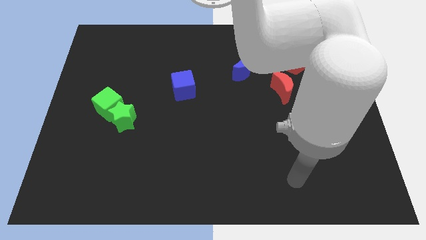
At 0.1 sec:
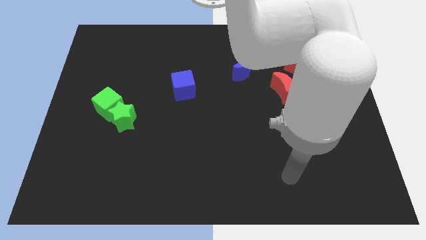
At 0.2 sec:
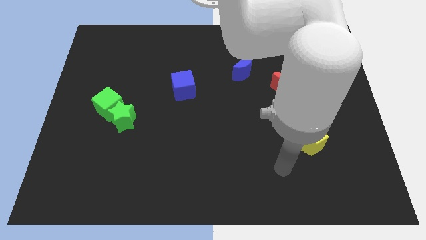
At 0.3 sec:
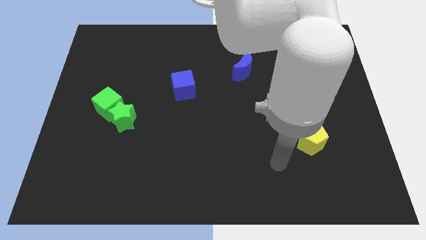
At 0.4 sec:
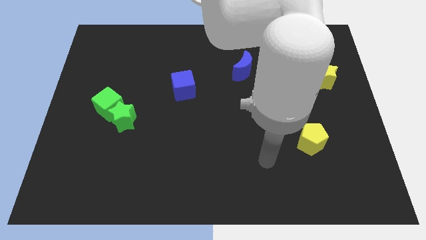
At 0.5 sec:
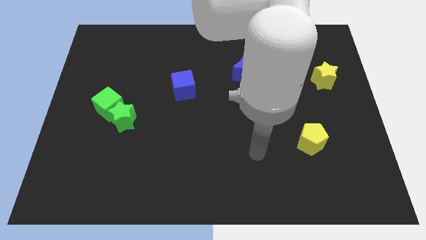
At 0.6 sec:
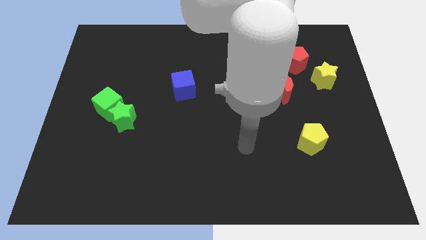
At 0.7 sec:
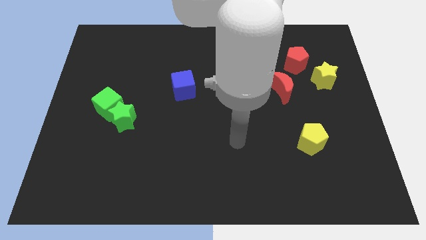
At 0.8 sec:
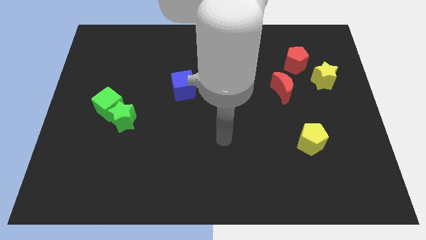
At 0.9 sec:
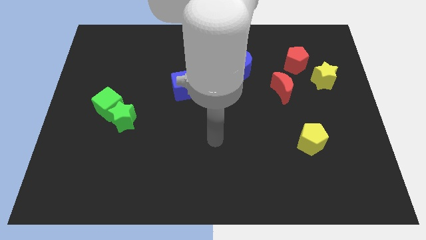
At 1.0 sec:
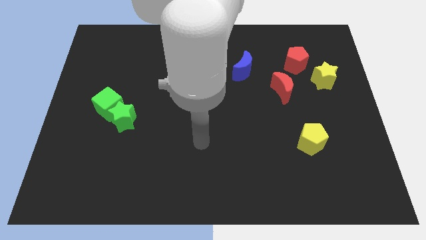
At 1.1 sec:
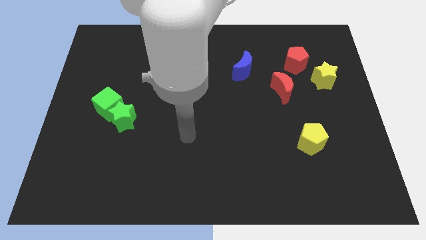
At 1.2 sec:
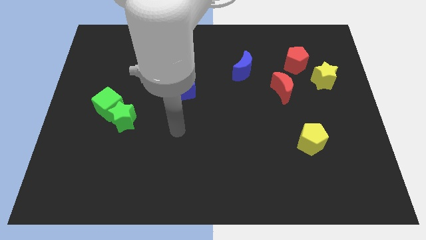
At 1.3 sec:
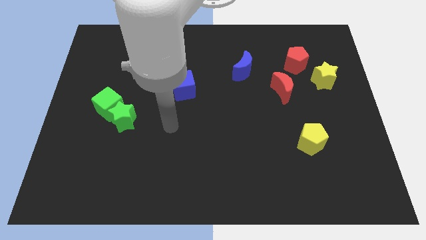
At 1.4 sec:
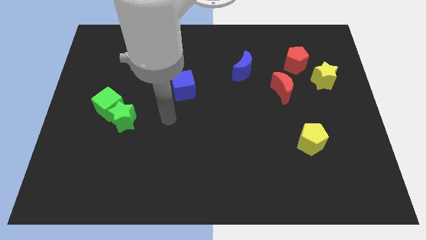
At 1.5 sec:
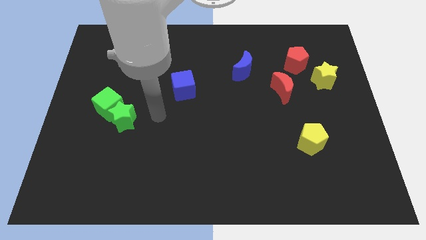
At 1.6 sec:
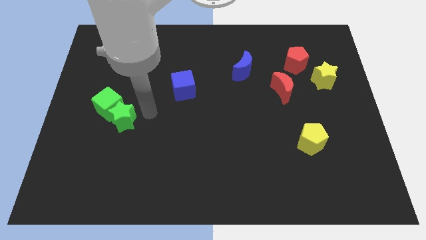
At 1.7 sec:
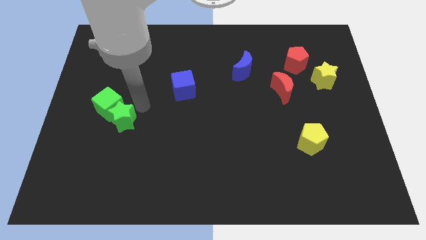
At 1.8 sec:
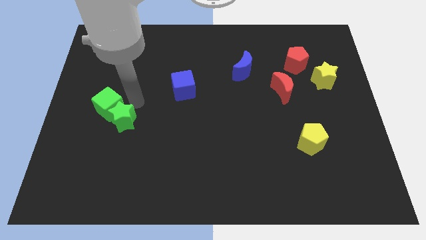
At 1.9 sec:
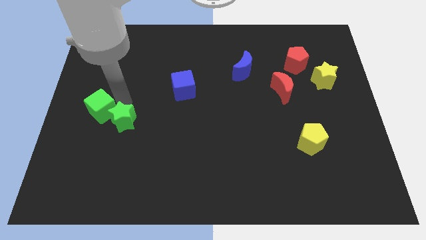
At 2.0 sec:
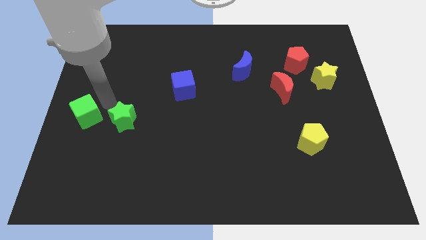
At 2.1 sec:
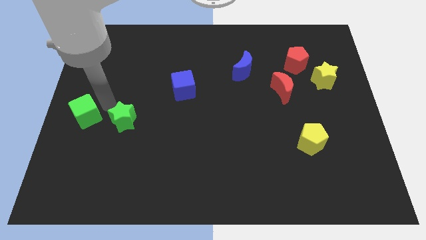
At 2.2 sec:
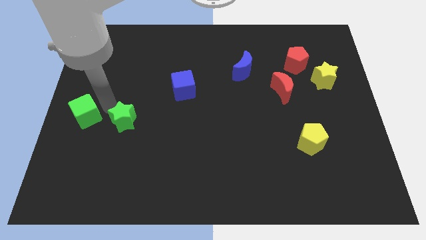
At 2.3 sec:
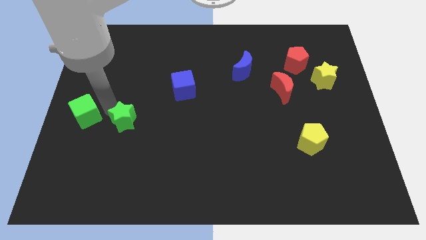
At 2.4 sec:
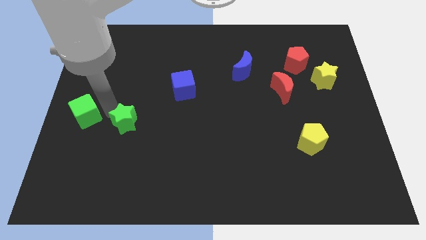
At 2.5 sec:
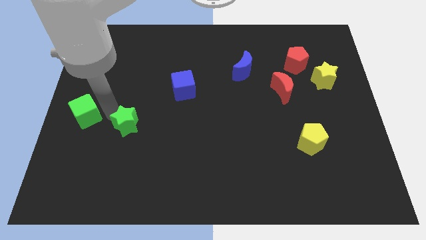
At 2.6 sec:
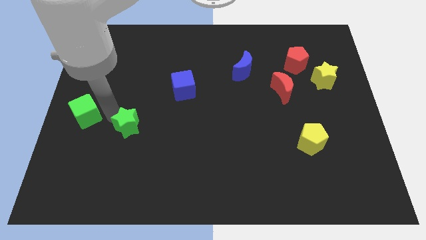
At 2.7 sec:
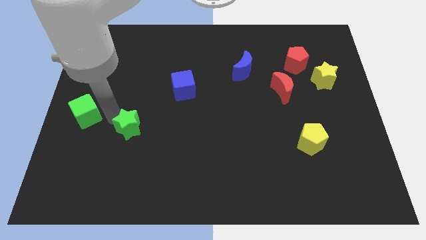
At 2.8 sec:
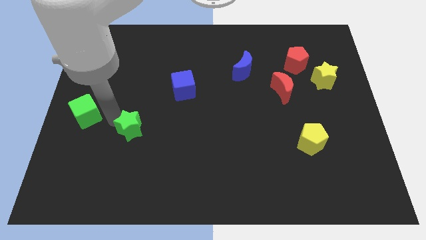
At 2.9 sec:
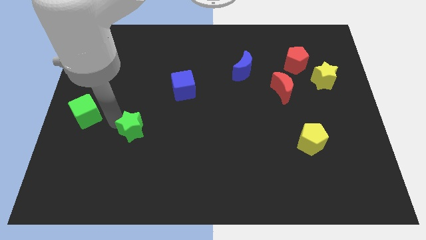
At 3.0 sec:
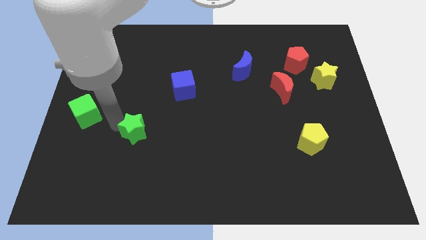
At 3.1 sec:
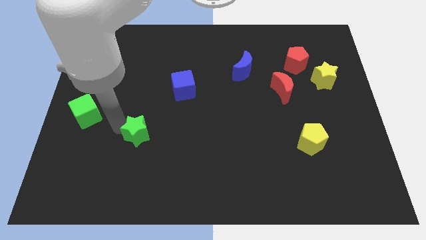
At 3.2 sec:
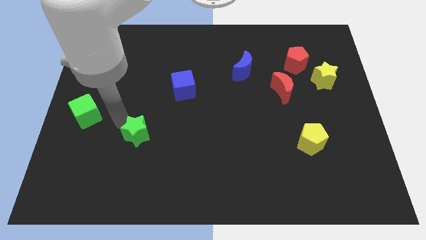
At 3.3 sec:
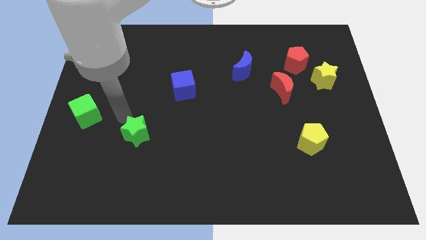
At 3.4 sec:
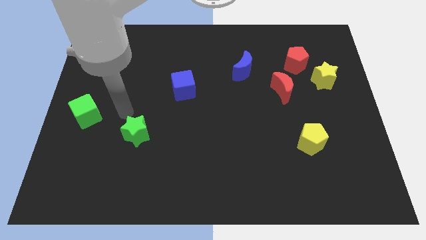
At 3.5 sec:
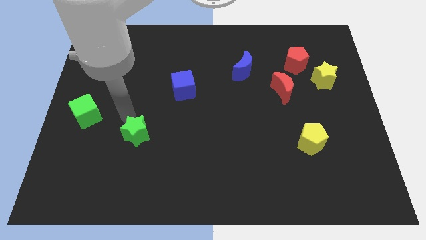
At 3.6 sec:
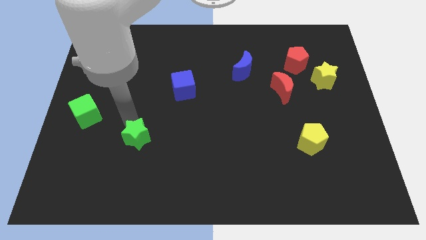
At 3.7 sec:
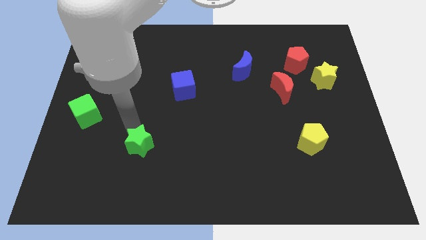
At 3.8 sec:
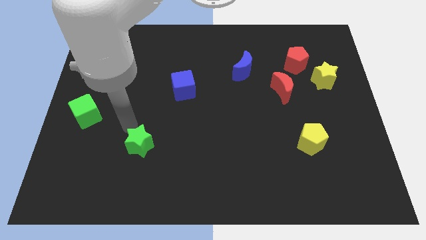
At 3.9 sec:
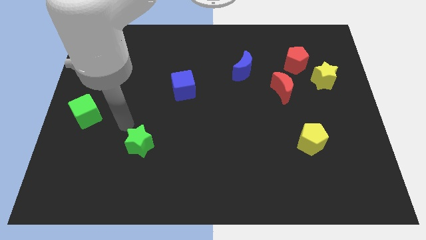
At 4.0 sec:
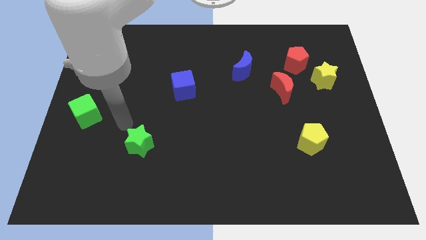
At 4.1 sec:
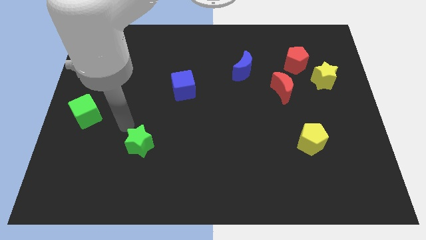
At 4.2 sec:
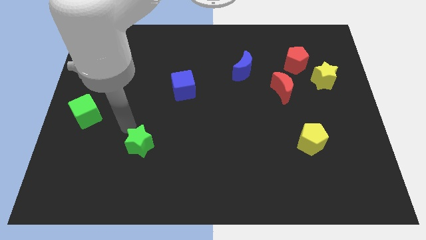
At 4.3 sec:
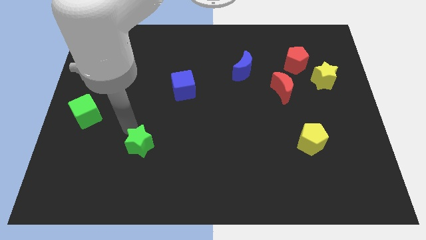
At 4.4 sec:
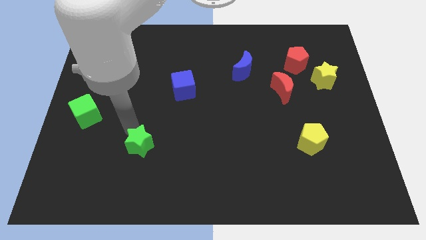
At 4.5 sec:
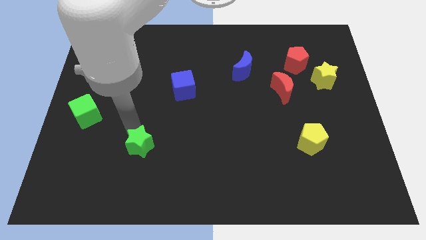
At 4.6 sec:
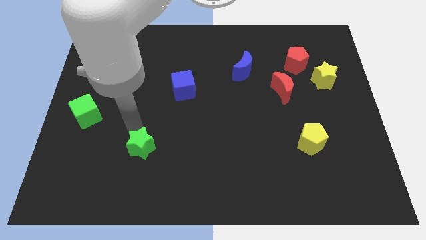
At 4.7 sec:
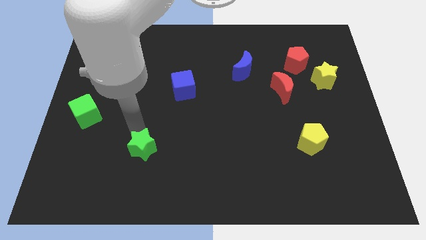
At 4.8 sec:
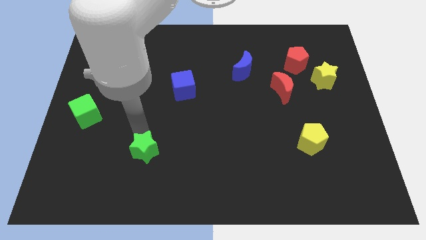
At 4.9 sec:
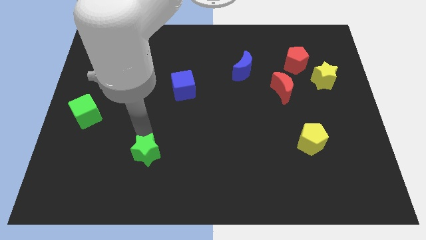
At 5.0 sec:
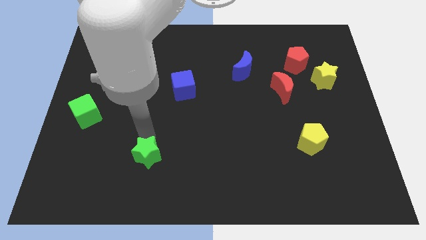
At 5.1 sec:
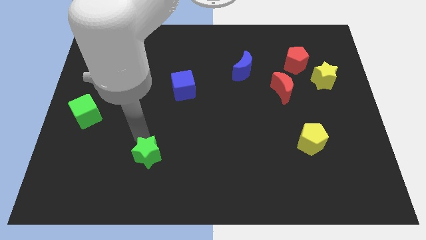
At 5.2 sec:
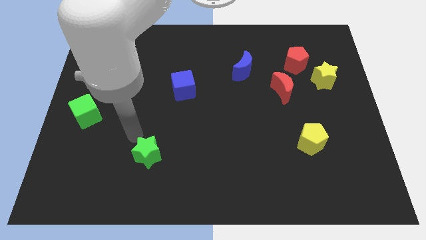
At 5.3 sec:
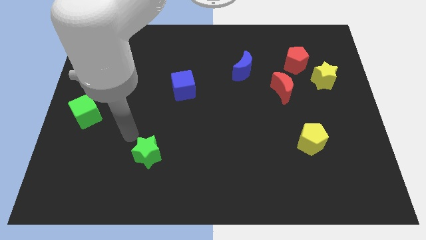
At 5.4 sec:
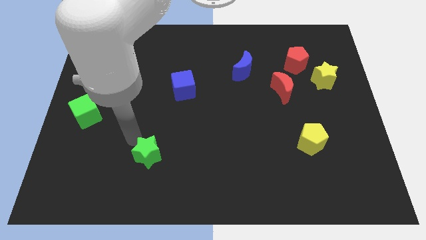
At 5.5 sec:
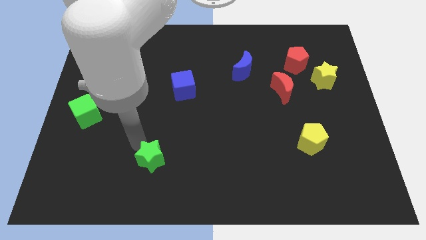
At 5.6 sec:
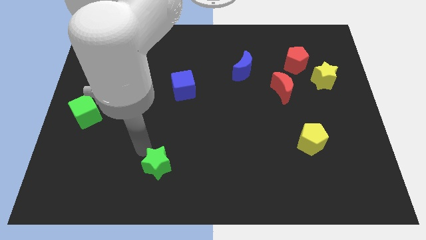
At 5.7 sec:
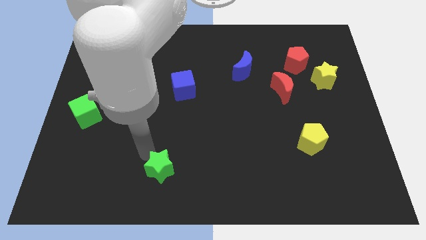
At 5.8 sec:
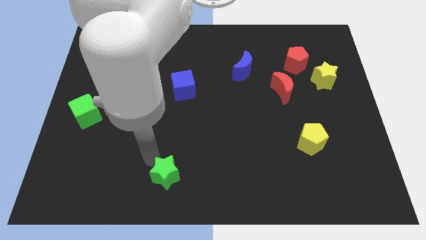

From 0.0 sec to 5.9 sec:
push the green star to the bottom side
